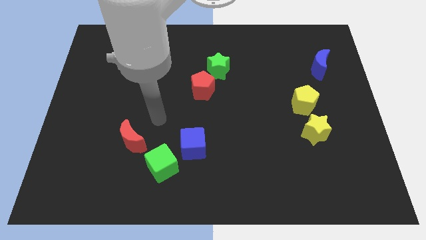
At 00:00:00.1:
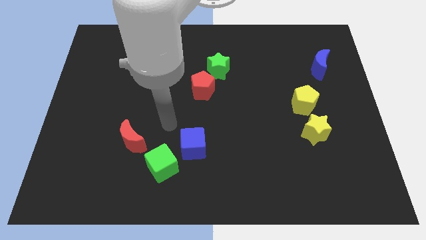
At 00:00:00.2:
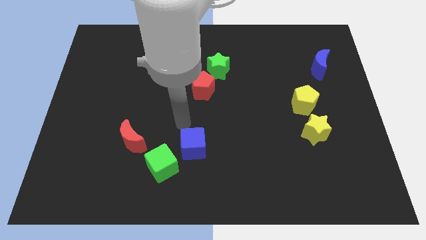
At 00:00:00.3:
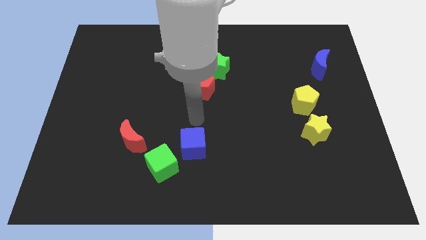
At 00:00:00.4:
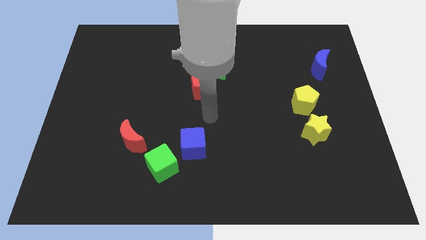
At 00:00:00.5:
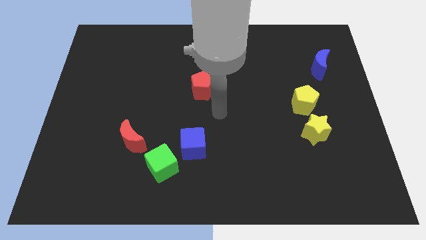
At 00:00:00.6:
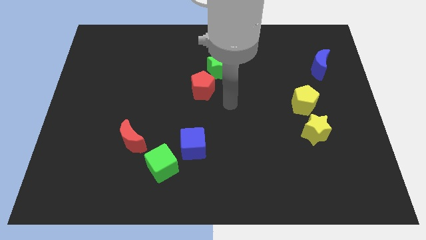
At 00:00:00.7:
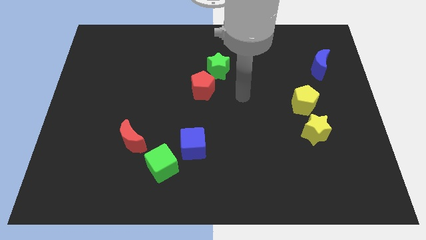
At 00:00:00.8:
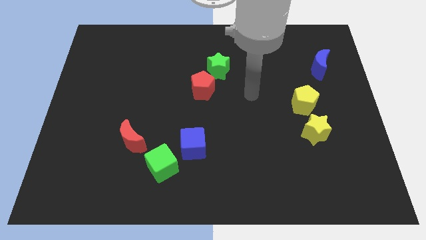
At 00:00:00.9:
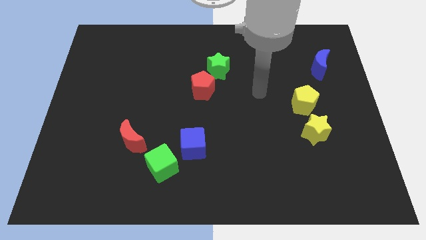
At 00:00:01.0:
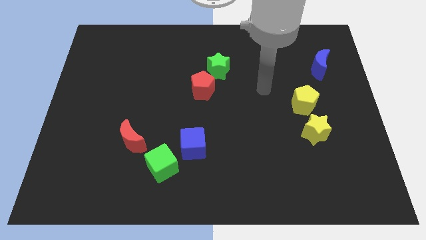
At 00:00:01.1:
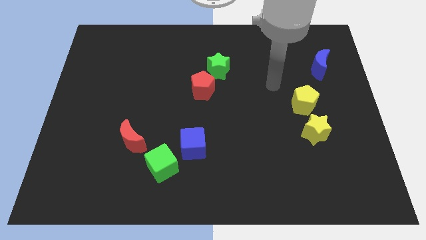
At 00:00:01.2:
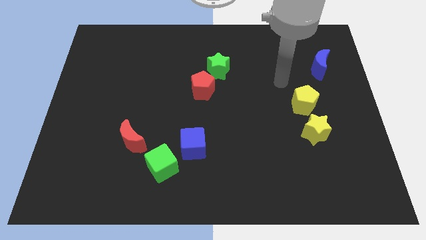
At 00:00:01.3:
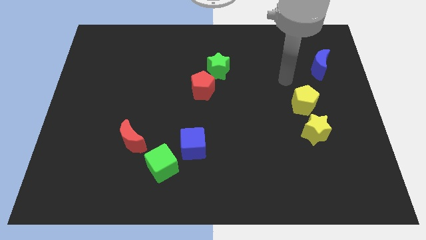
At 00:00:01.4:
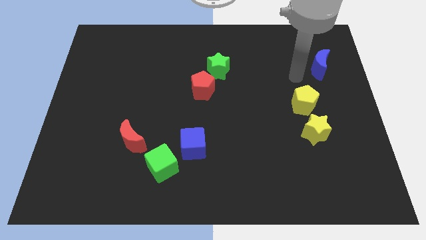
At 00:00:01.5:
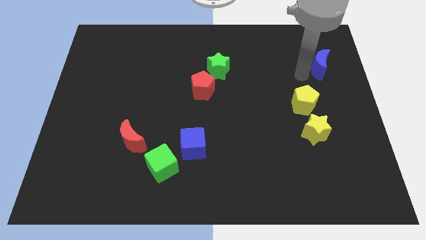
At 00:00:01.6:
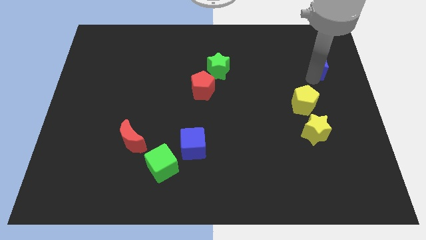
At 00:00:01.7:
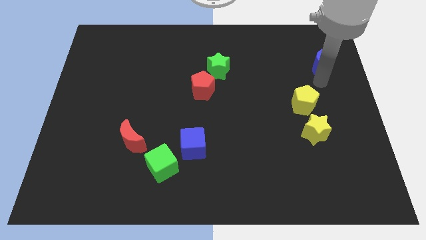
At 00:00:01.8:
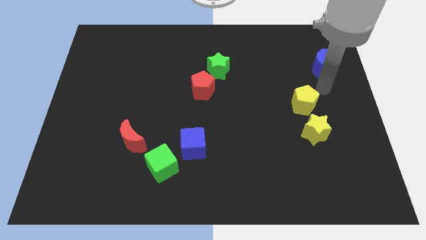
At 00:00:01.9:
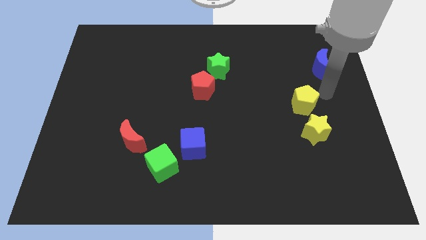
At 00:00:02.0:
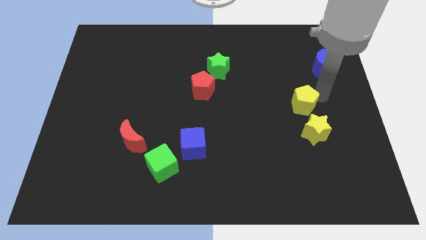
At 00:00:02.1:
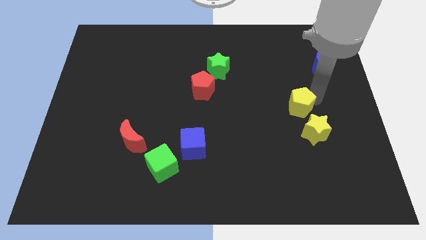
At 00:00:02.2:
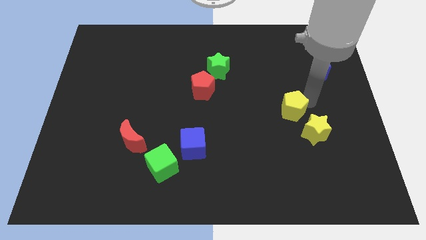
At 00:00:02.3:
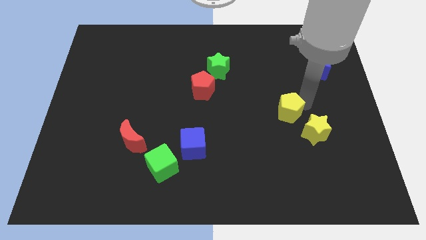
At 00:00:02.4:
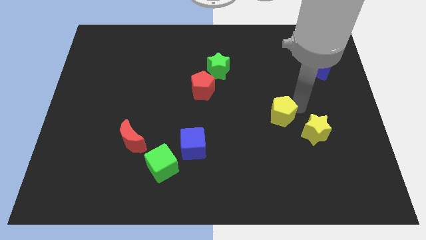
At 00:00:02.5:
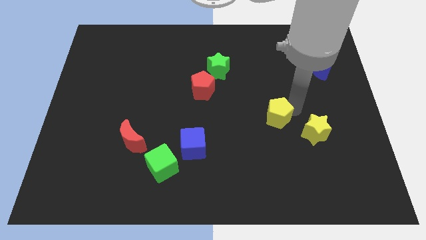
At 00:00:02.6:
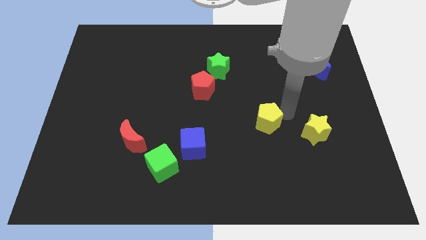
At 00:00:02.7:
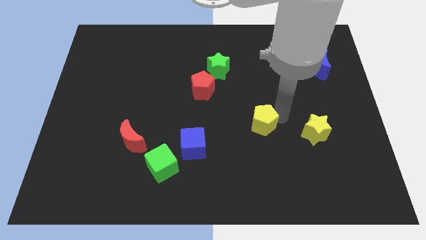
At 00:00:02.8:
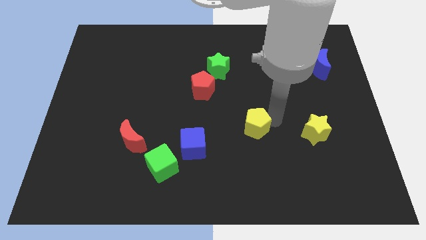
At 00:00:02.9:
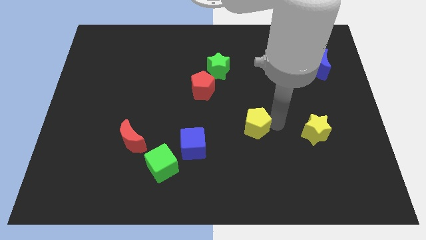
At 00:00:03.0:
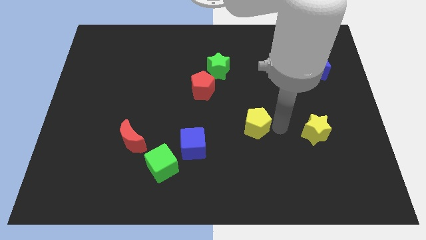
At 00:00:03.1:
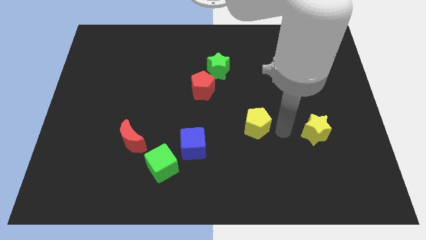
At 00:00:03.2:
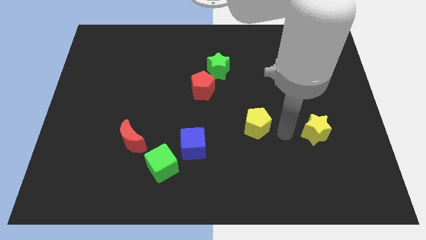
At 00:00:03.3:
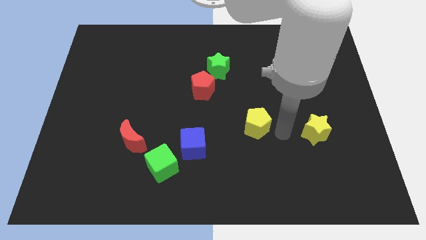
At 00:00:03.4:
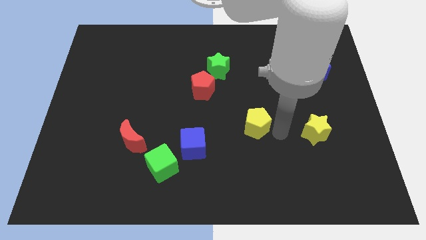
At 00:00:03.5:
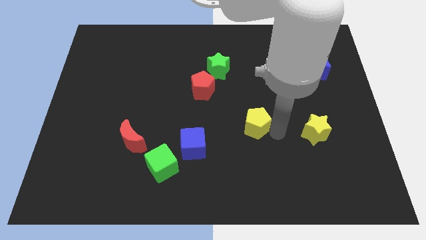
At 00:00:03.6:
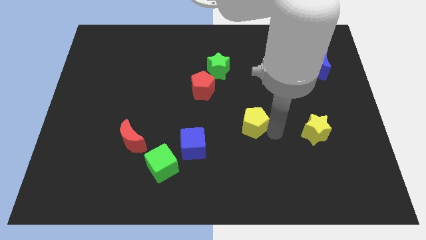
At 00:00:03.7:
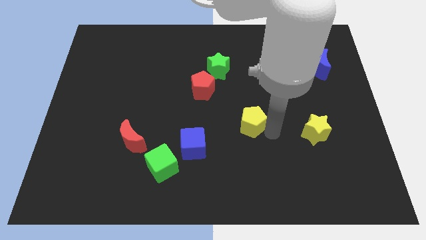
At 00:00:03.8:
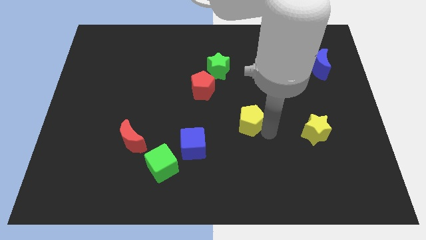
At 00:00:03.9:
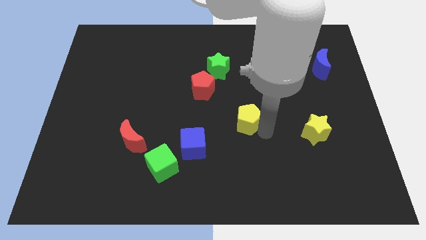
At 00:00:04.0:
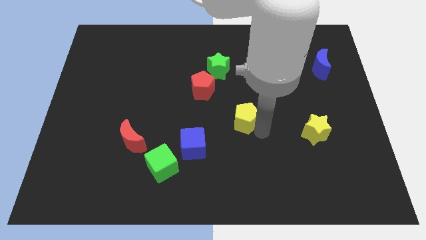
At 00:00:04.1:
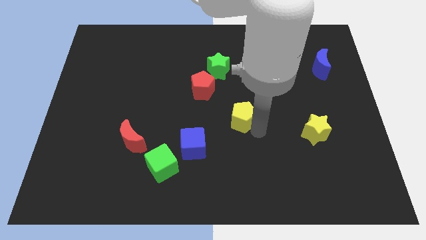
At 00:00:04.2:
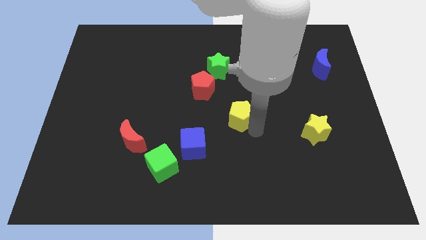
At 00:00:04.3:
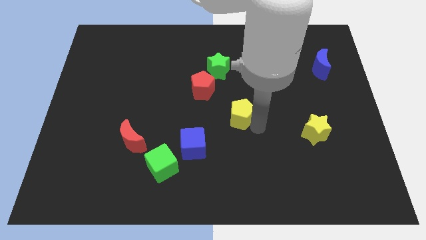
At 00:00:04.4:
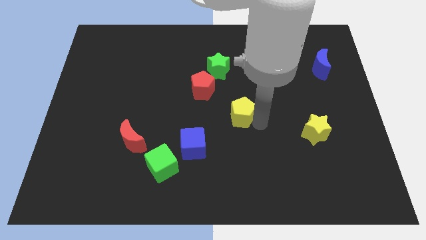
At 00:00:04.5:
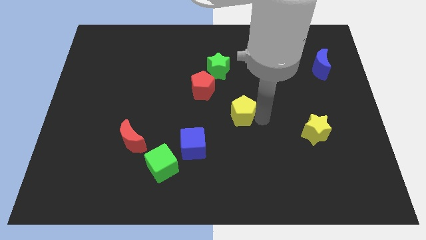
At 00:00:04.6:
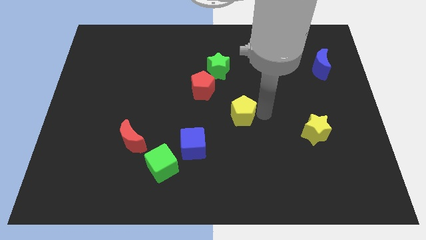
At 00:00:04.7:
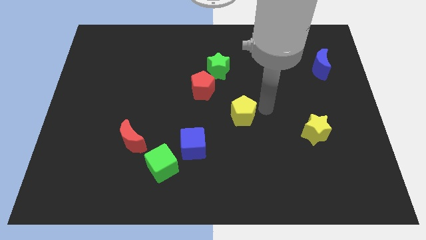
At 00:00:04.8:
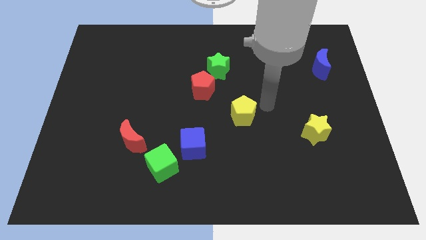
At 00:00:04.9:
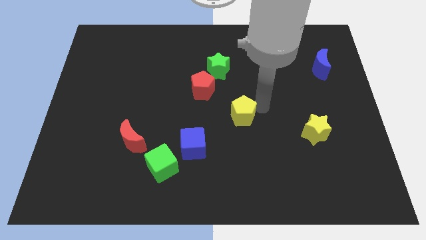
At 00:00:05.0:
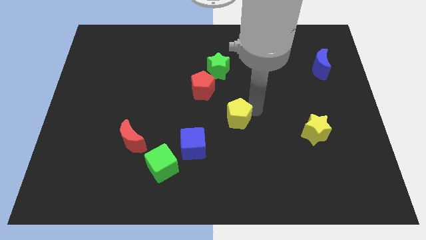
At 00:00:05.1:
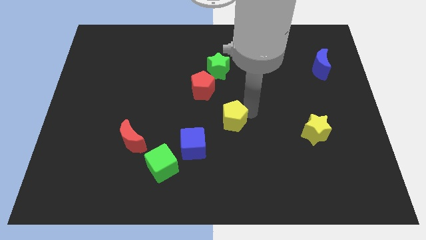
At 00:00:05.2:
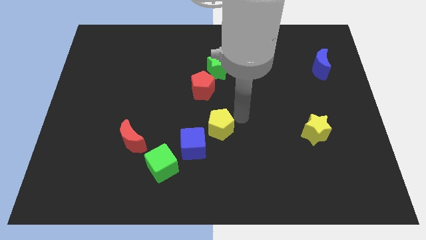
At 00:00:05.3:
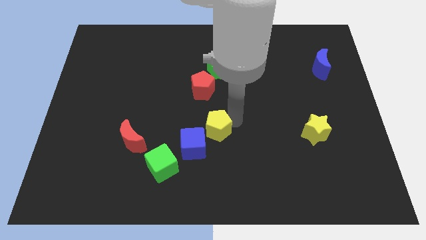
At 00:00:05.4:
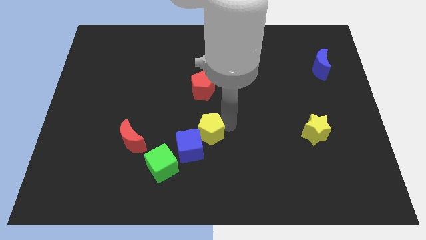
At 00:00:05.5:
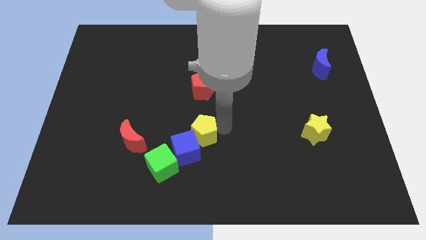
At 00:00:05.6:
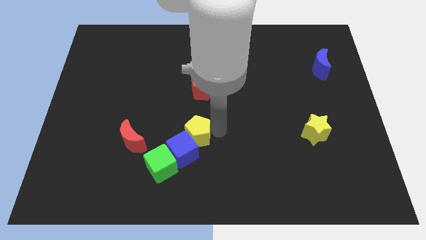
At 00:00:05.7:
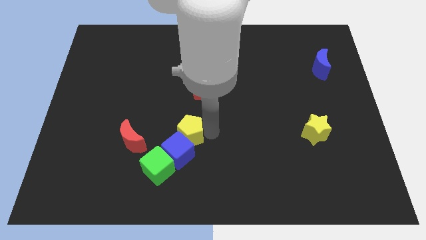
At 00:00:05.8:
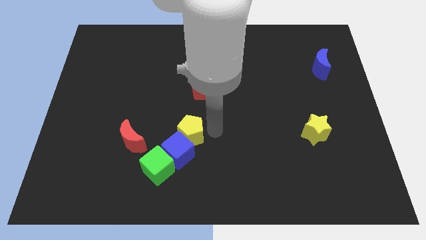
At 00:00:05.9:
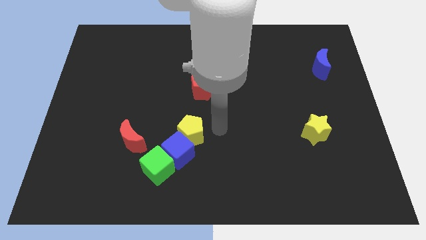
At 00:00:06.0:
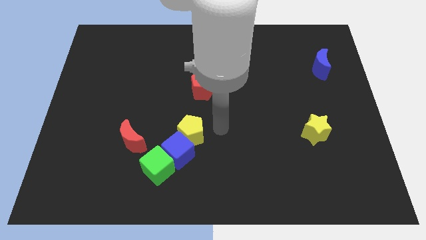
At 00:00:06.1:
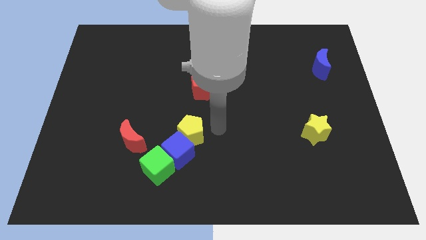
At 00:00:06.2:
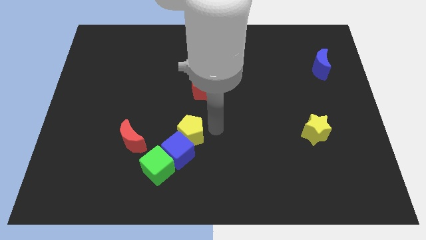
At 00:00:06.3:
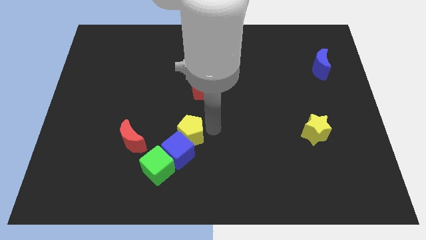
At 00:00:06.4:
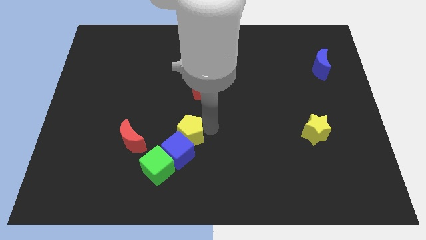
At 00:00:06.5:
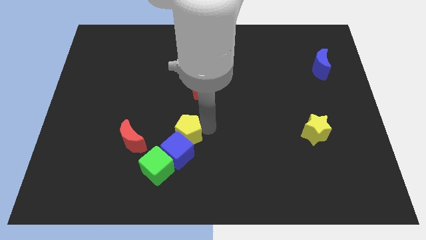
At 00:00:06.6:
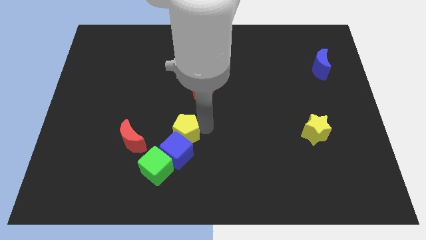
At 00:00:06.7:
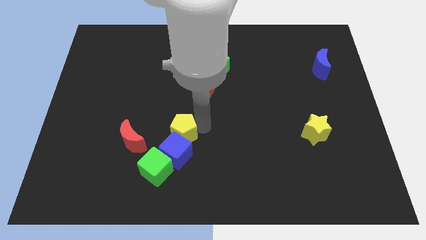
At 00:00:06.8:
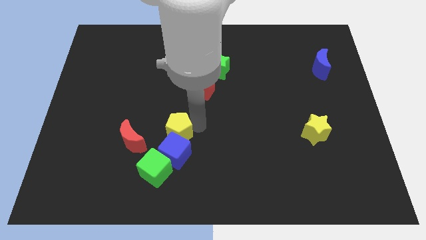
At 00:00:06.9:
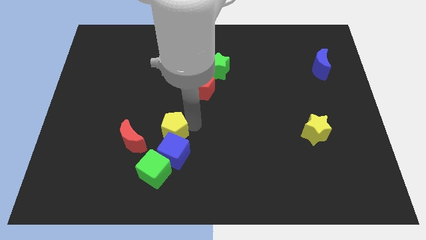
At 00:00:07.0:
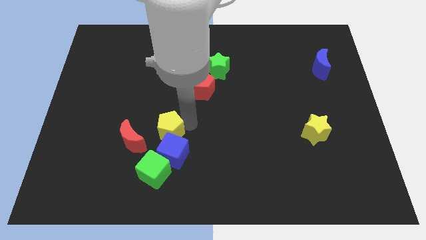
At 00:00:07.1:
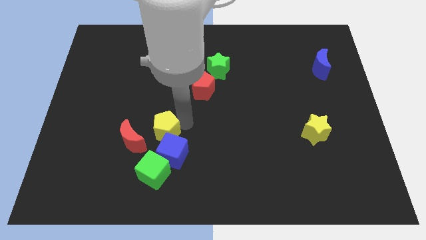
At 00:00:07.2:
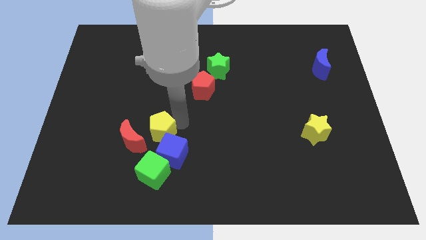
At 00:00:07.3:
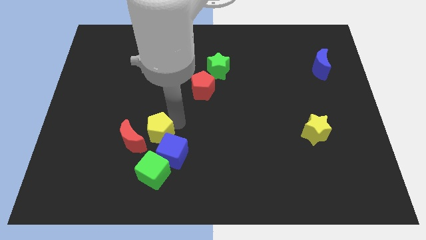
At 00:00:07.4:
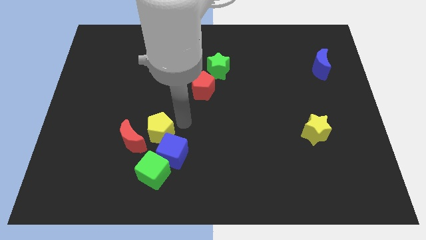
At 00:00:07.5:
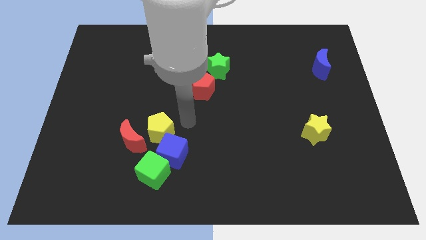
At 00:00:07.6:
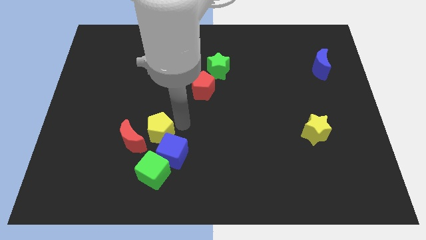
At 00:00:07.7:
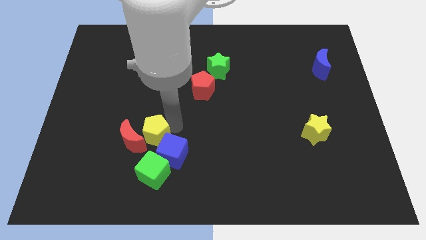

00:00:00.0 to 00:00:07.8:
slide the yellow pentagon close to the red moon
